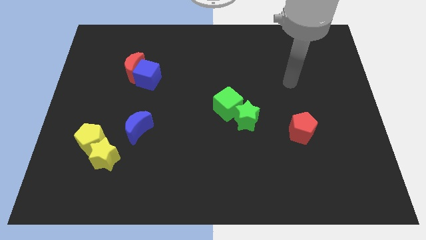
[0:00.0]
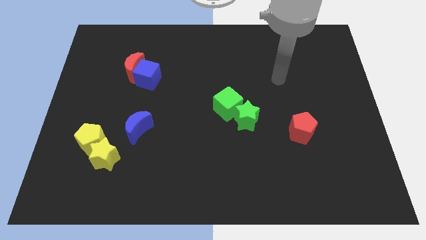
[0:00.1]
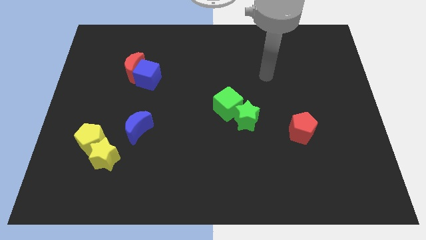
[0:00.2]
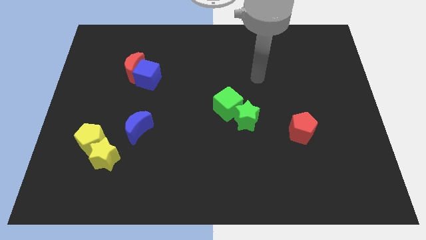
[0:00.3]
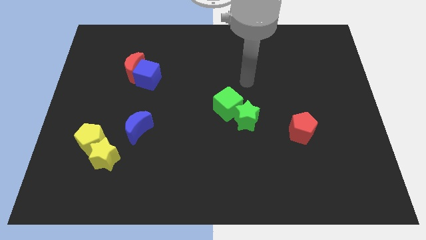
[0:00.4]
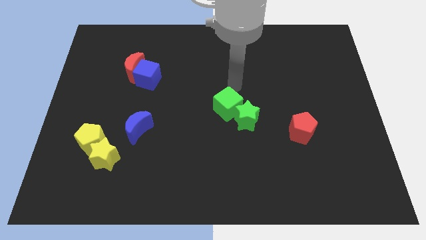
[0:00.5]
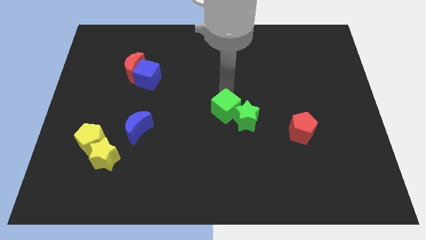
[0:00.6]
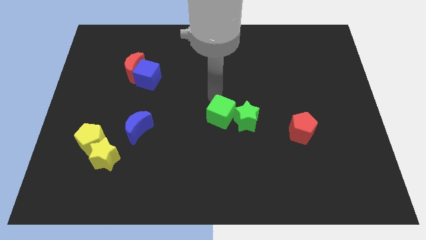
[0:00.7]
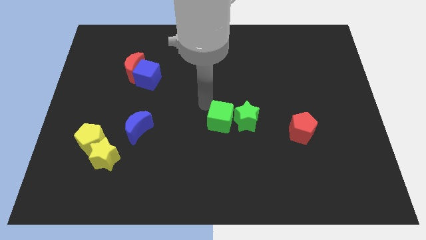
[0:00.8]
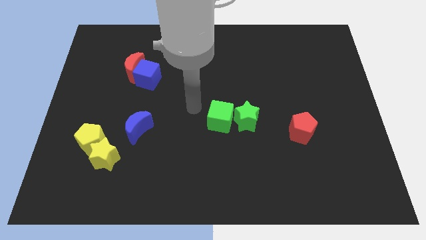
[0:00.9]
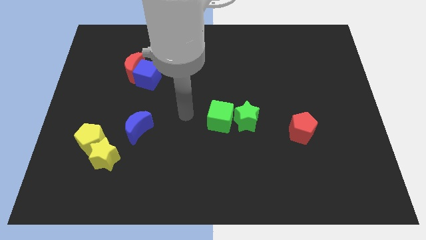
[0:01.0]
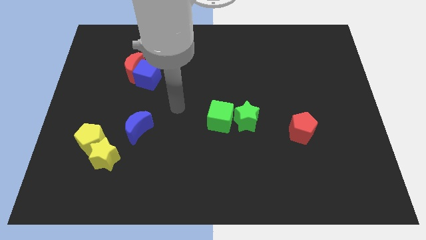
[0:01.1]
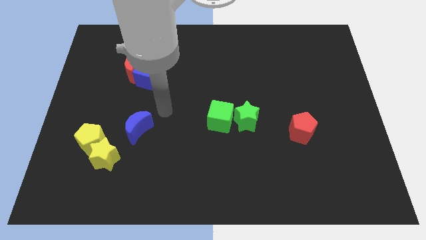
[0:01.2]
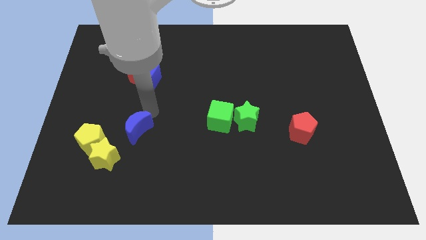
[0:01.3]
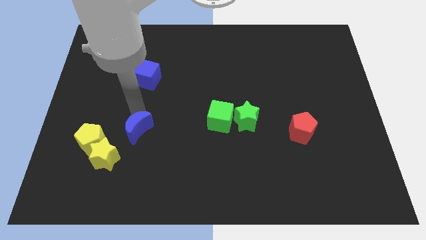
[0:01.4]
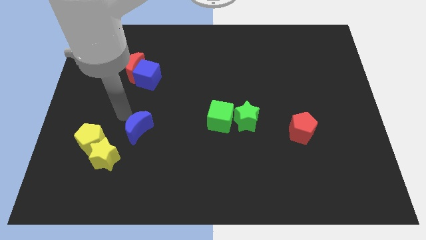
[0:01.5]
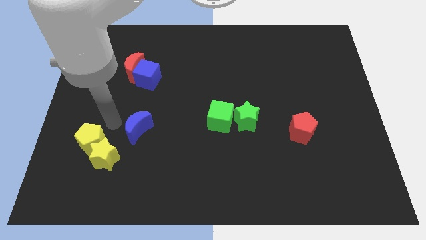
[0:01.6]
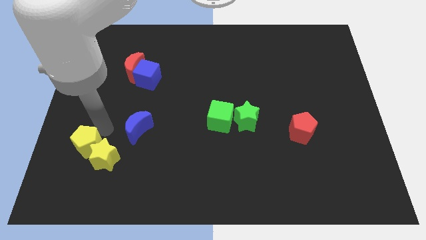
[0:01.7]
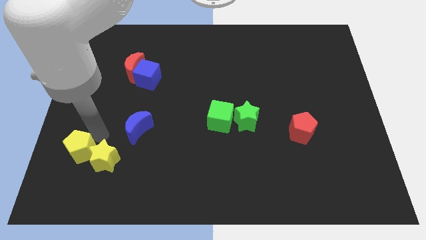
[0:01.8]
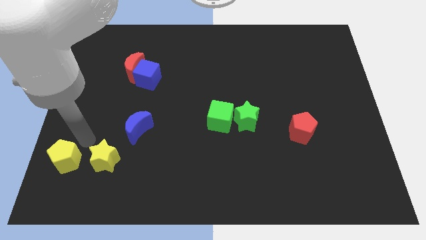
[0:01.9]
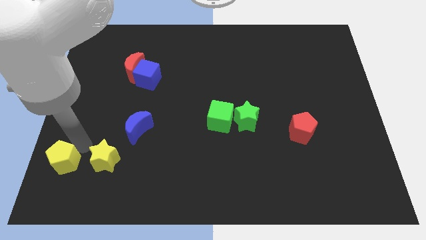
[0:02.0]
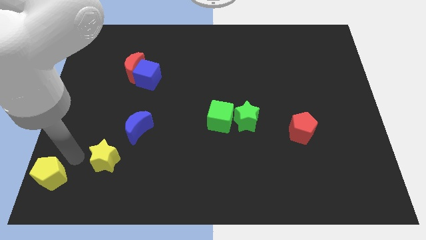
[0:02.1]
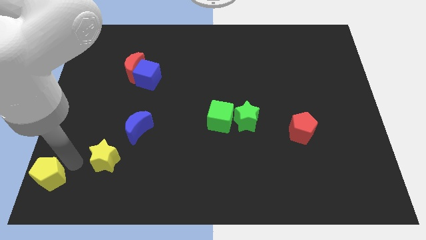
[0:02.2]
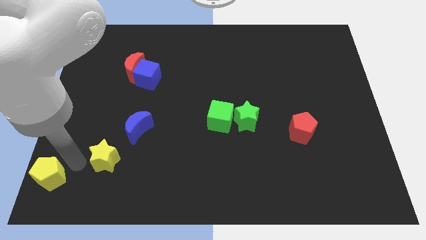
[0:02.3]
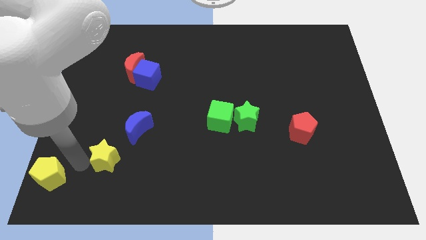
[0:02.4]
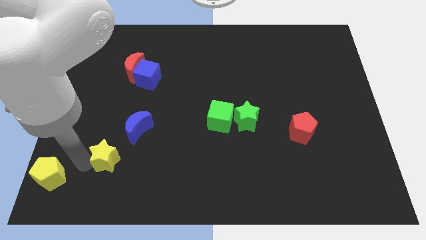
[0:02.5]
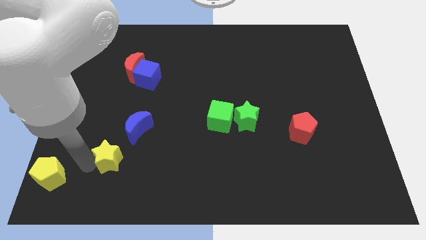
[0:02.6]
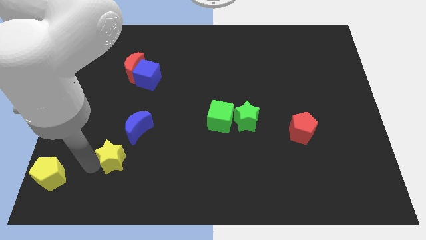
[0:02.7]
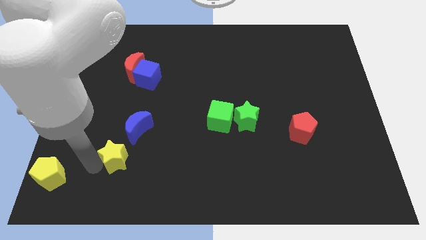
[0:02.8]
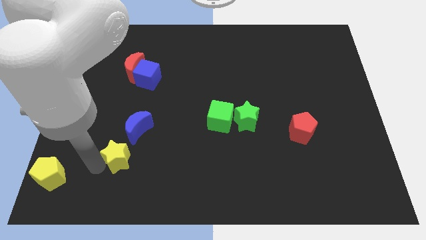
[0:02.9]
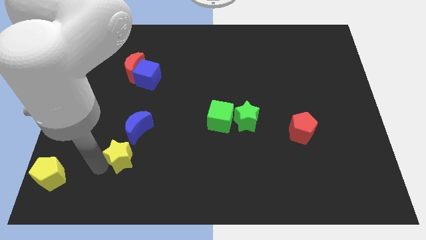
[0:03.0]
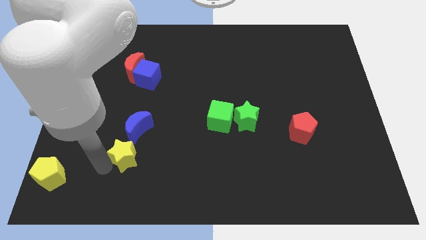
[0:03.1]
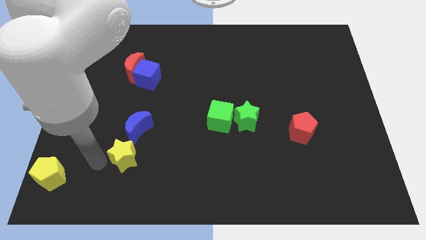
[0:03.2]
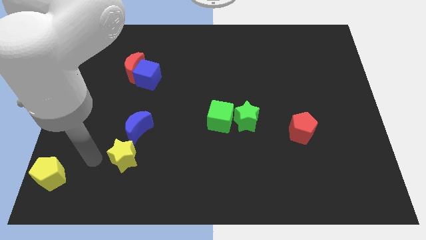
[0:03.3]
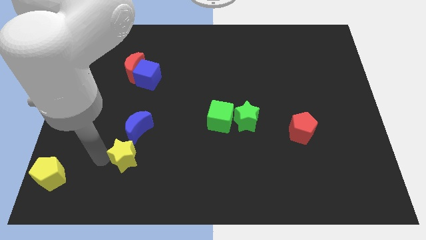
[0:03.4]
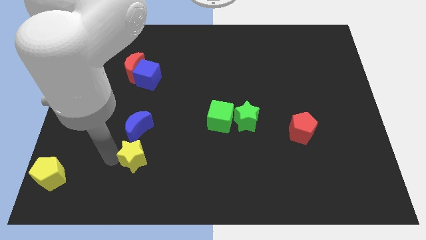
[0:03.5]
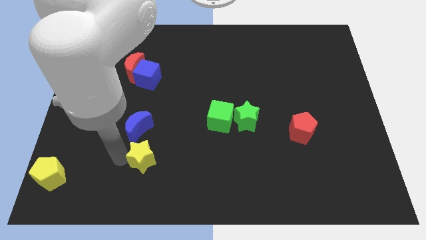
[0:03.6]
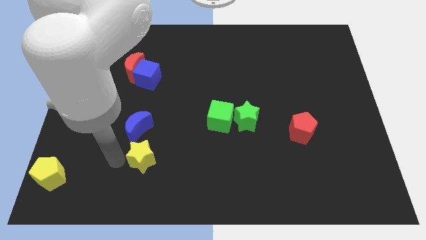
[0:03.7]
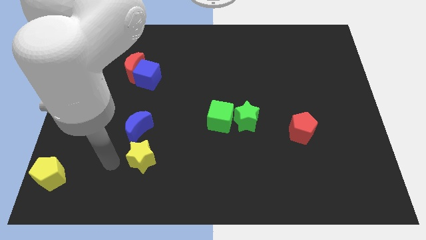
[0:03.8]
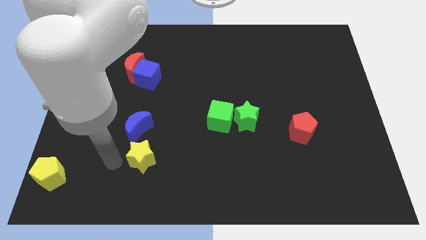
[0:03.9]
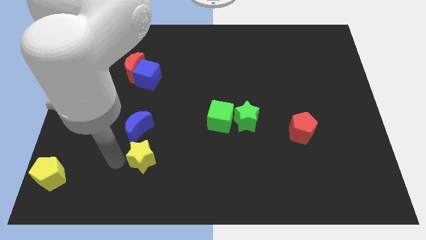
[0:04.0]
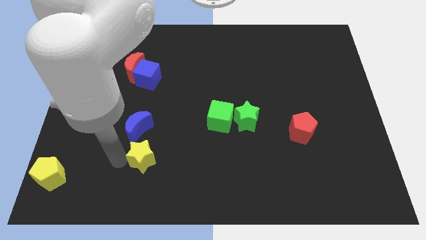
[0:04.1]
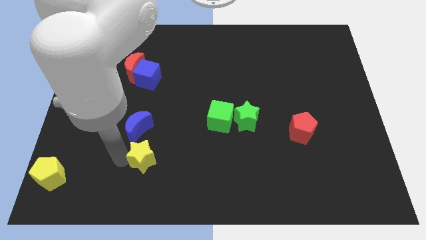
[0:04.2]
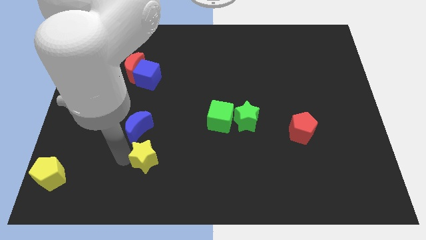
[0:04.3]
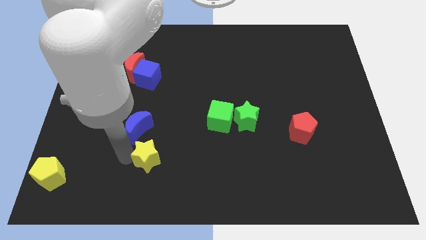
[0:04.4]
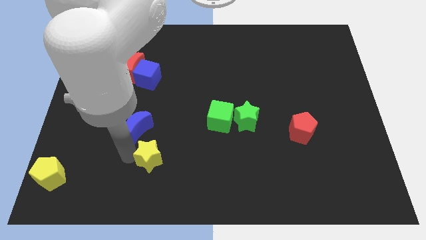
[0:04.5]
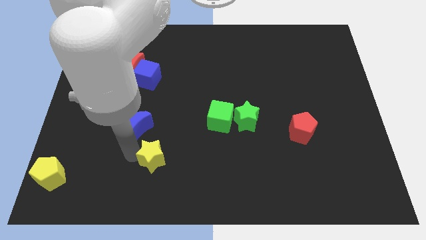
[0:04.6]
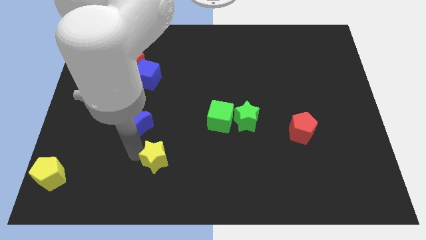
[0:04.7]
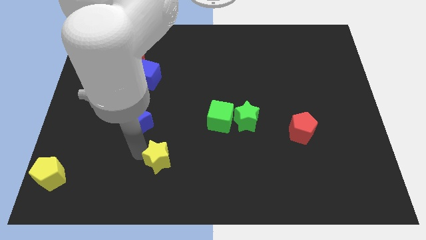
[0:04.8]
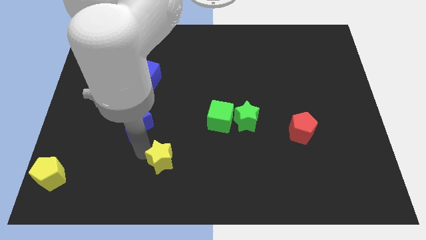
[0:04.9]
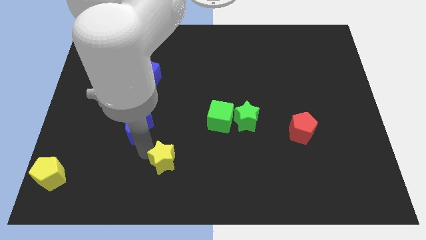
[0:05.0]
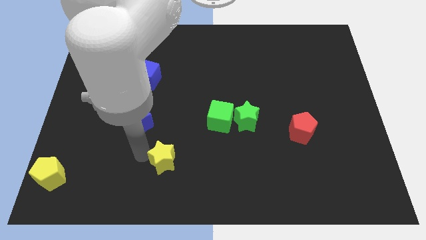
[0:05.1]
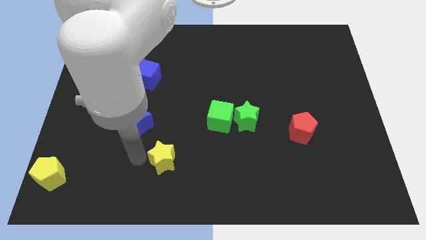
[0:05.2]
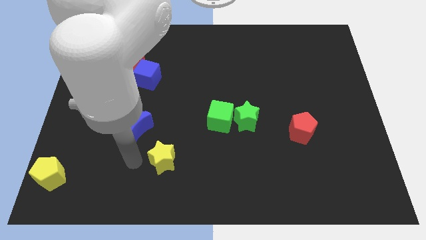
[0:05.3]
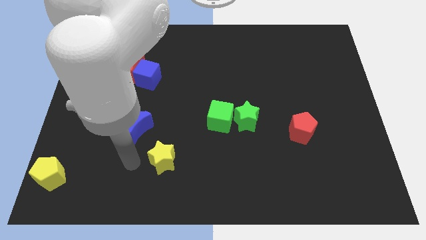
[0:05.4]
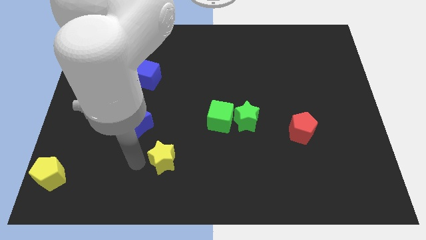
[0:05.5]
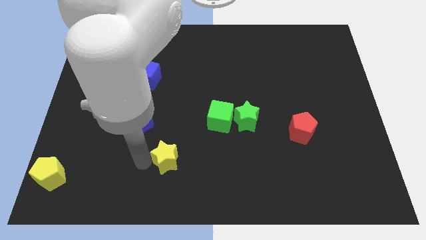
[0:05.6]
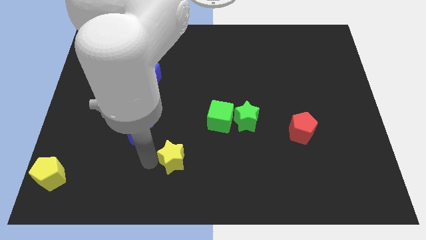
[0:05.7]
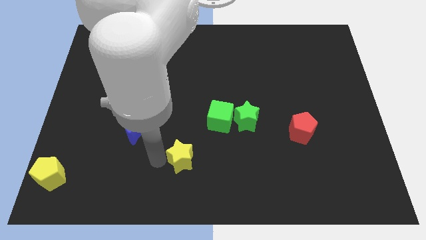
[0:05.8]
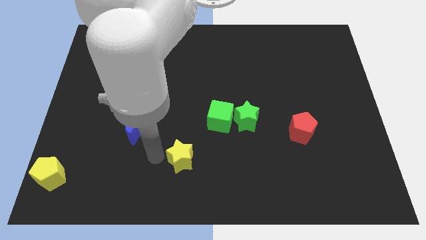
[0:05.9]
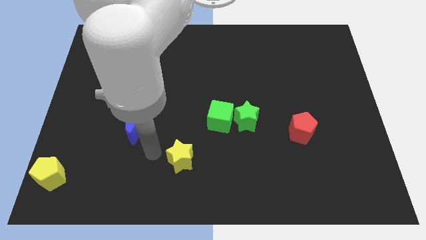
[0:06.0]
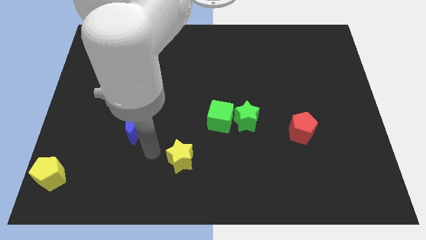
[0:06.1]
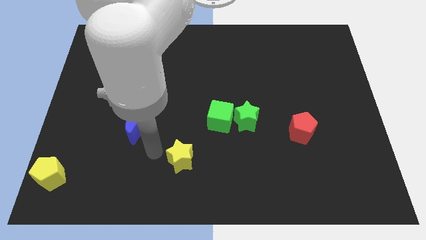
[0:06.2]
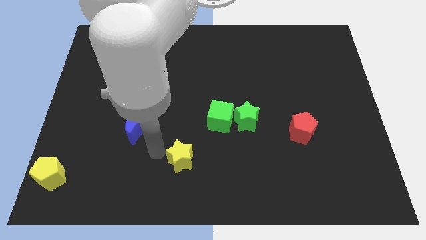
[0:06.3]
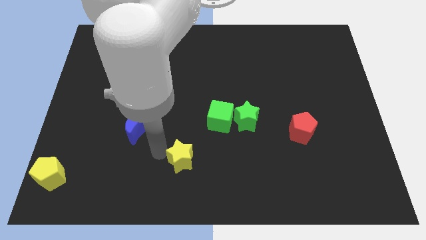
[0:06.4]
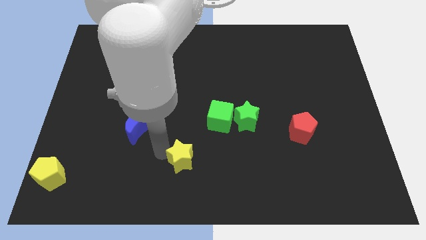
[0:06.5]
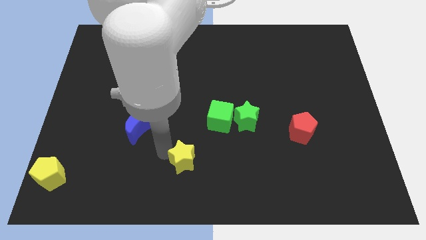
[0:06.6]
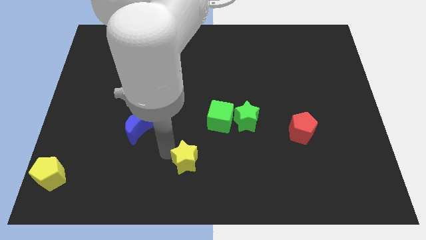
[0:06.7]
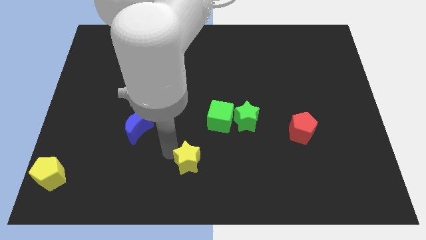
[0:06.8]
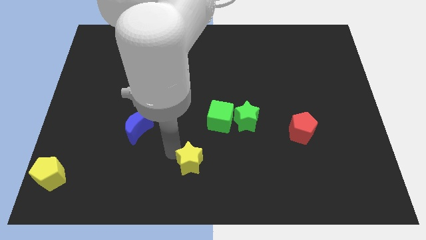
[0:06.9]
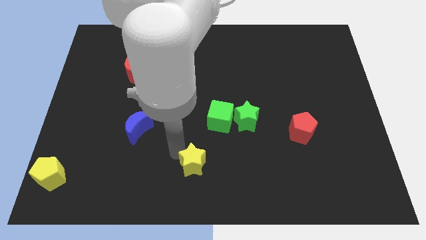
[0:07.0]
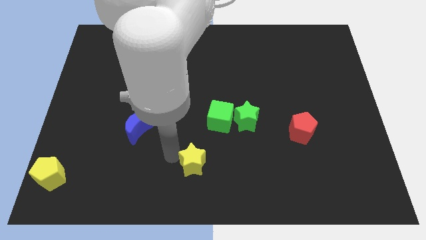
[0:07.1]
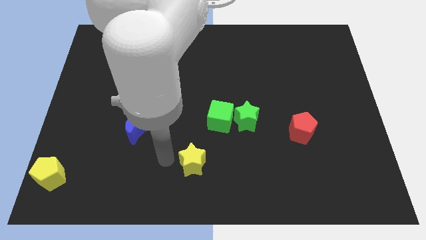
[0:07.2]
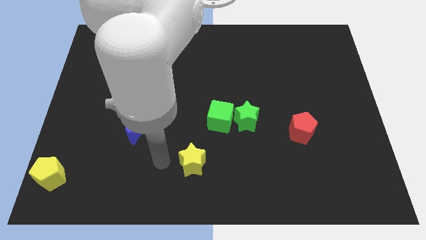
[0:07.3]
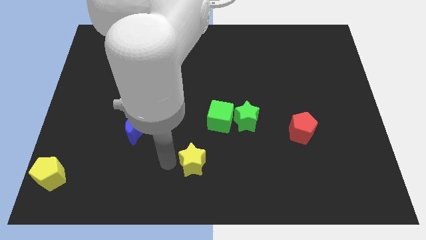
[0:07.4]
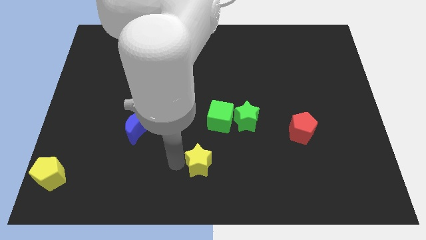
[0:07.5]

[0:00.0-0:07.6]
slide the yellow star to the right

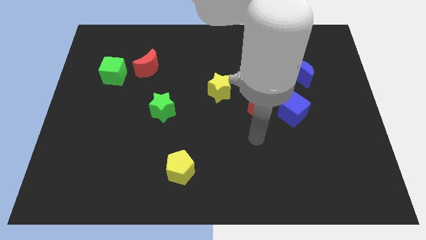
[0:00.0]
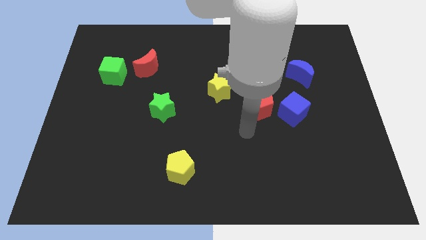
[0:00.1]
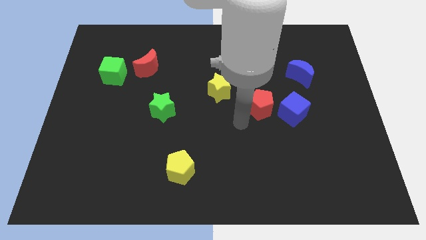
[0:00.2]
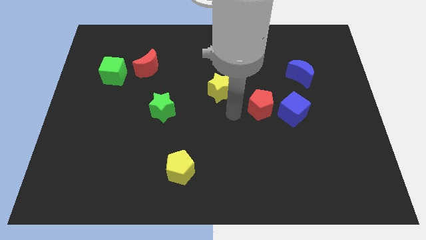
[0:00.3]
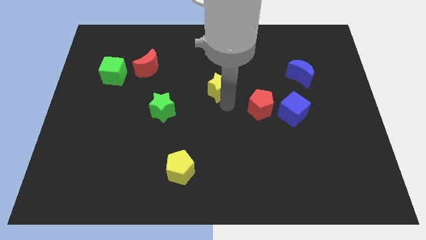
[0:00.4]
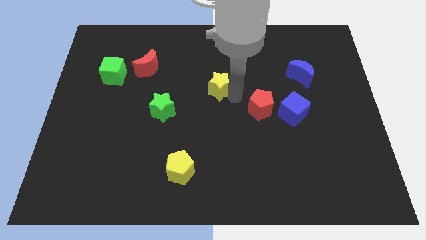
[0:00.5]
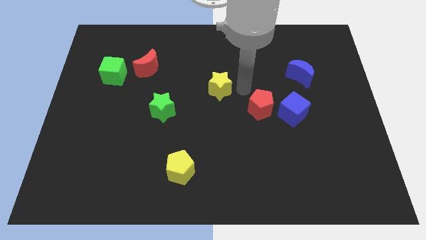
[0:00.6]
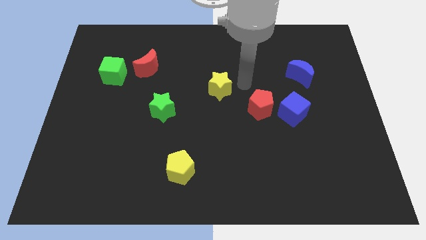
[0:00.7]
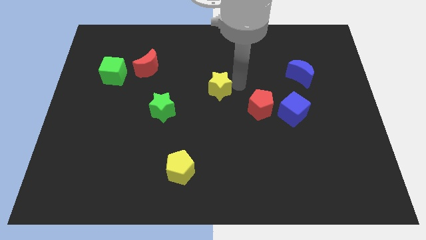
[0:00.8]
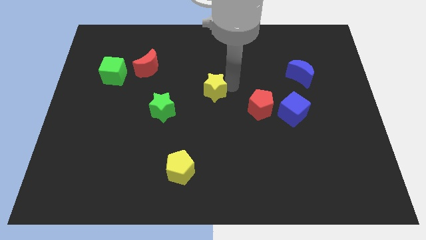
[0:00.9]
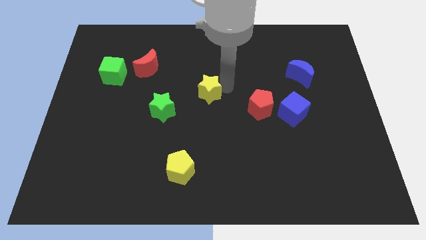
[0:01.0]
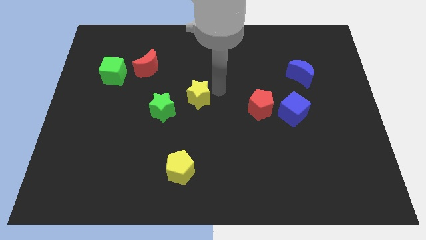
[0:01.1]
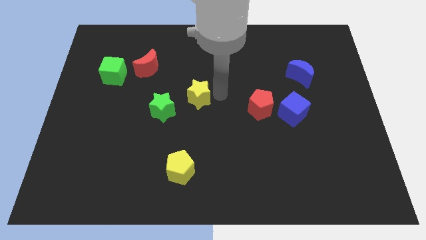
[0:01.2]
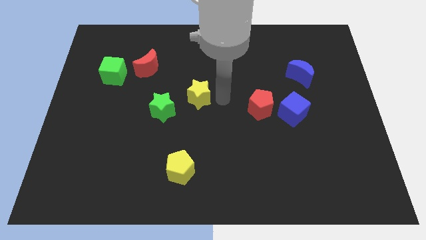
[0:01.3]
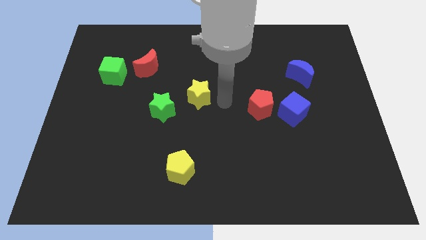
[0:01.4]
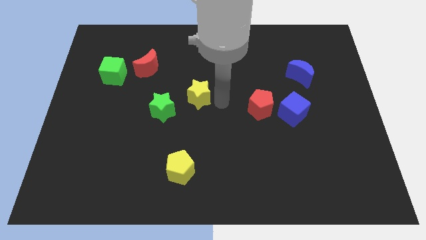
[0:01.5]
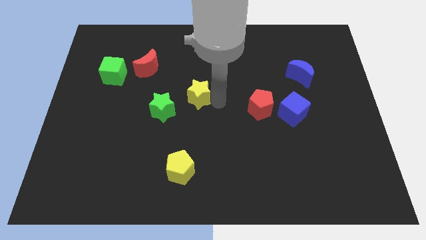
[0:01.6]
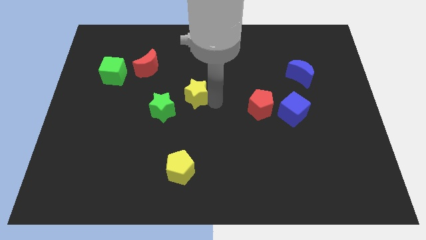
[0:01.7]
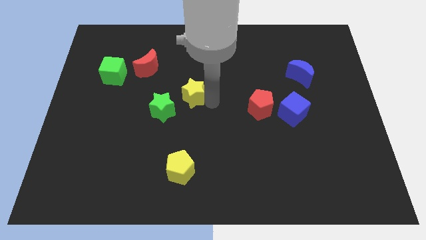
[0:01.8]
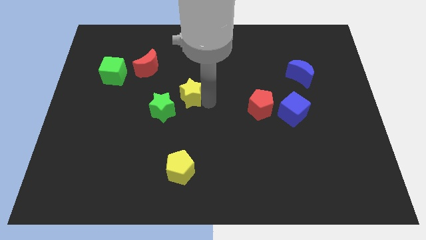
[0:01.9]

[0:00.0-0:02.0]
push the yellow star to the left a little bit
